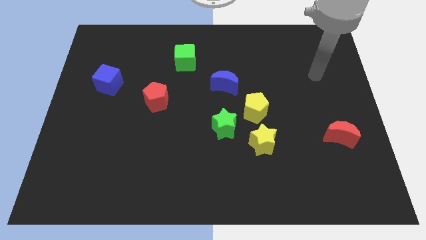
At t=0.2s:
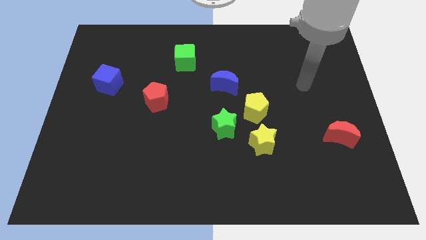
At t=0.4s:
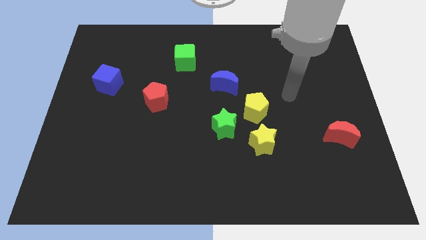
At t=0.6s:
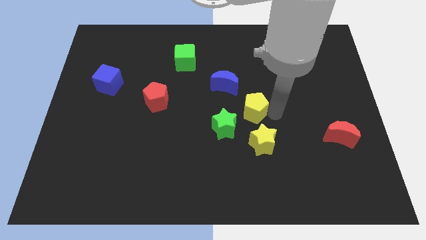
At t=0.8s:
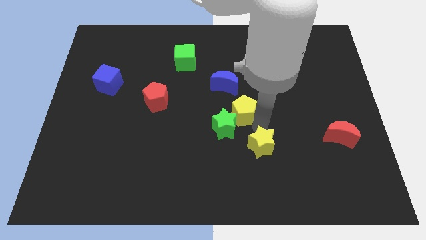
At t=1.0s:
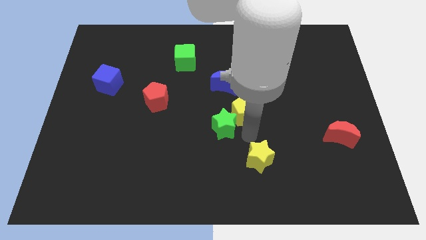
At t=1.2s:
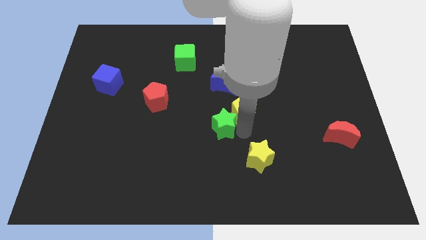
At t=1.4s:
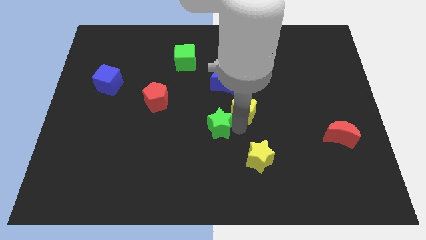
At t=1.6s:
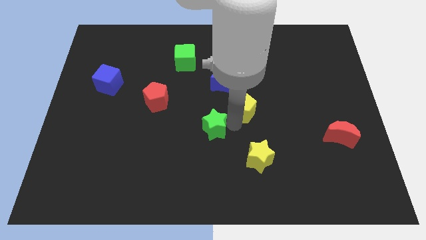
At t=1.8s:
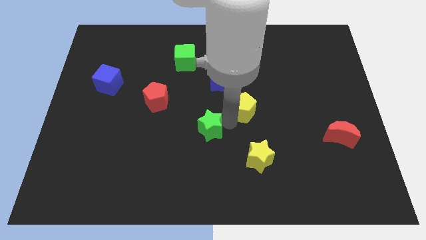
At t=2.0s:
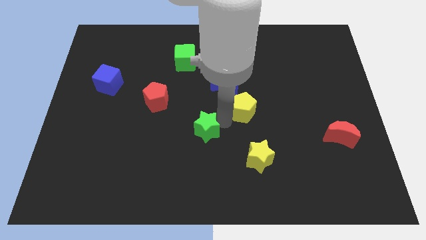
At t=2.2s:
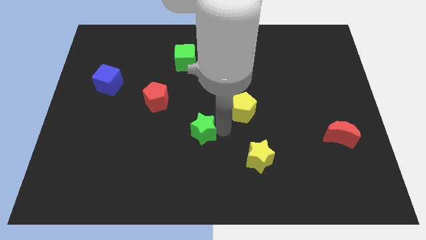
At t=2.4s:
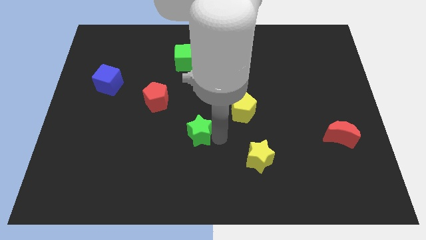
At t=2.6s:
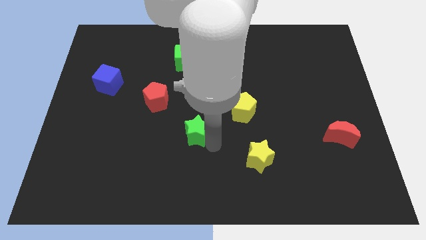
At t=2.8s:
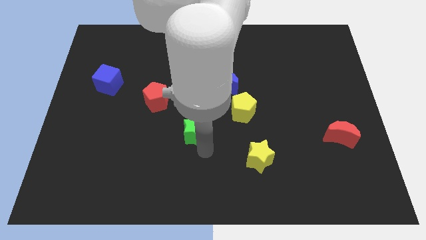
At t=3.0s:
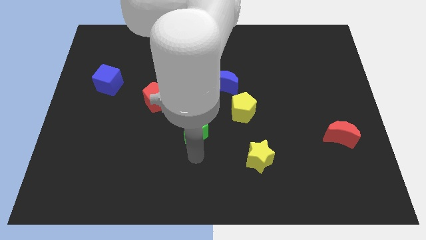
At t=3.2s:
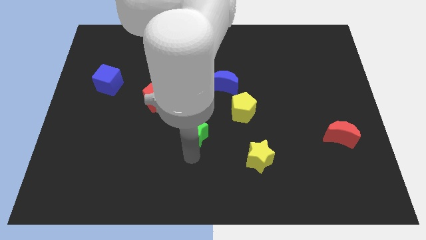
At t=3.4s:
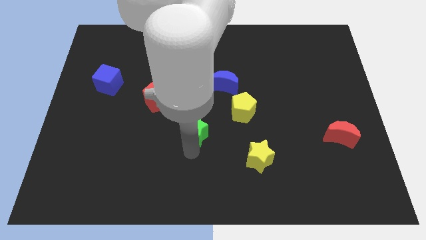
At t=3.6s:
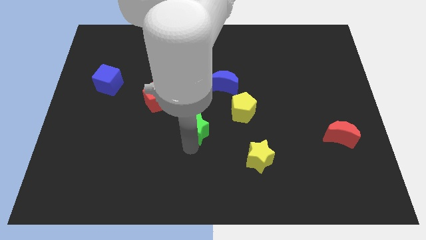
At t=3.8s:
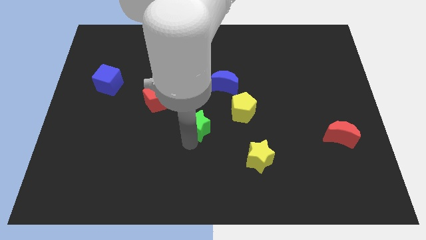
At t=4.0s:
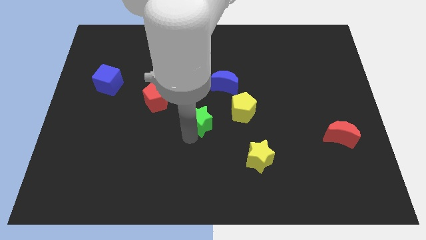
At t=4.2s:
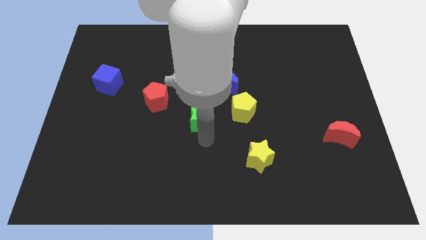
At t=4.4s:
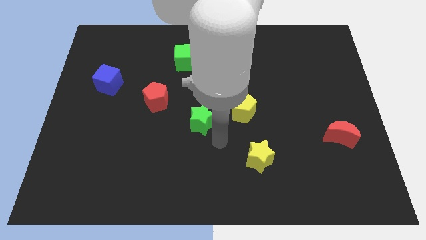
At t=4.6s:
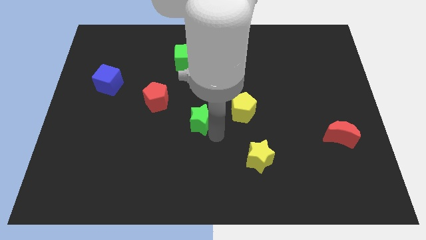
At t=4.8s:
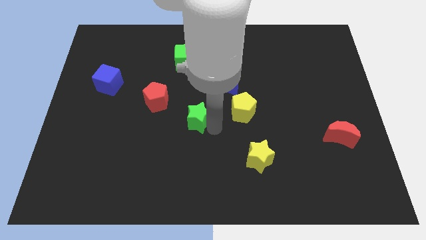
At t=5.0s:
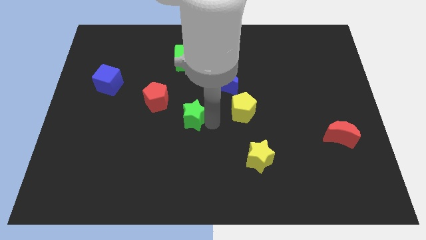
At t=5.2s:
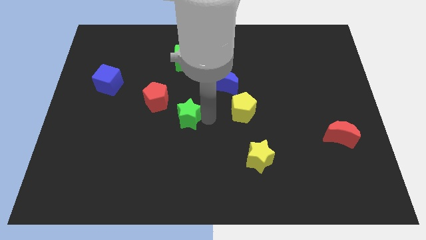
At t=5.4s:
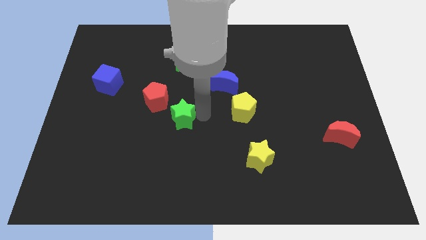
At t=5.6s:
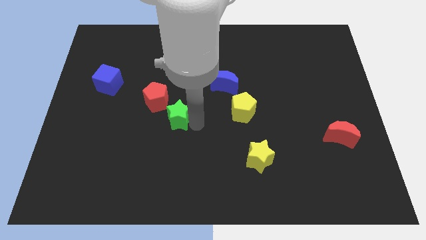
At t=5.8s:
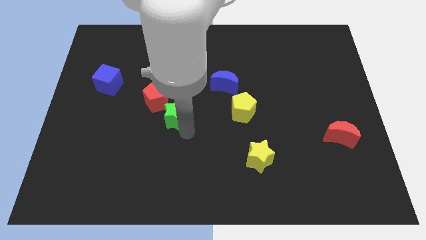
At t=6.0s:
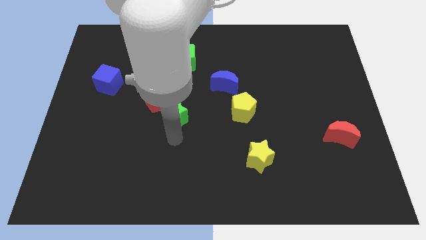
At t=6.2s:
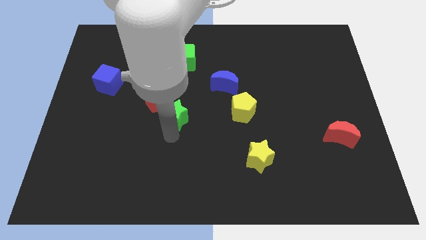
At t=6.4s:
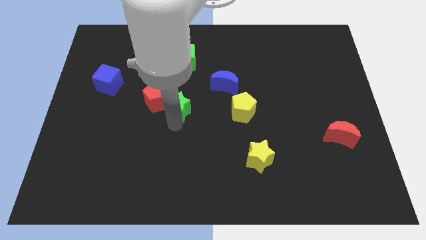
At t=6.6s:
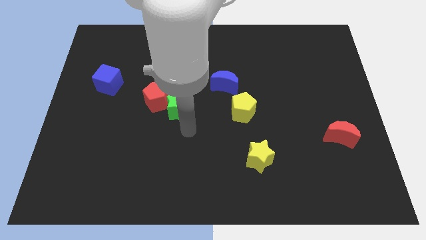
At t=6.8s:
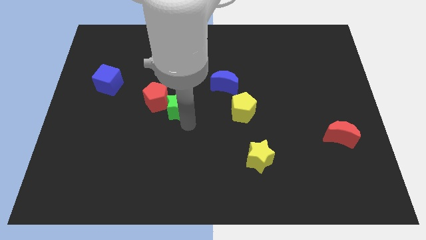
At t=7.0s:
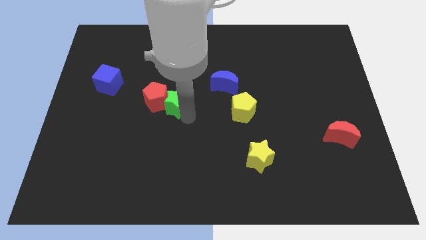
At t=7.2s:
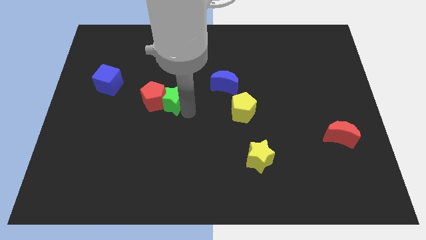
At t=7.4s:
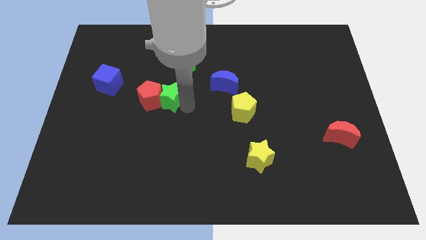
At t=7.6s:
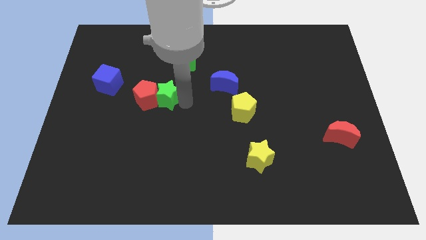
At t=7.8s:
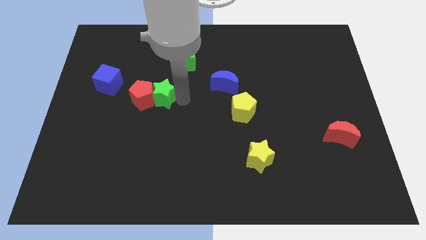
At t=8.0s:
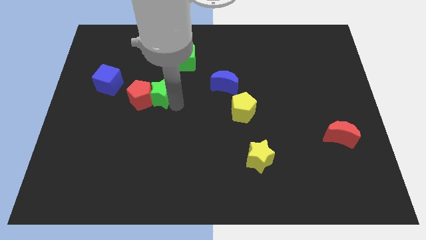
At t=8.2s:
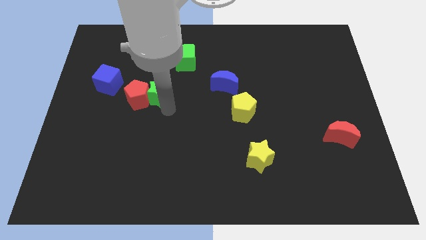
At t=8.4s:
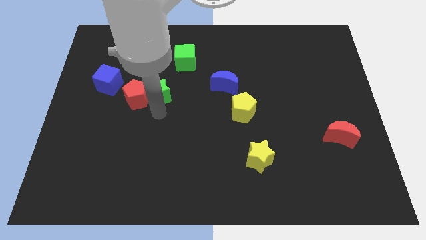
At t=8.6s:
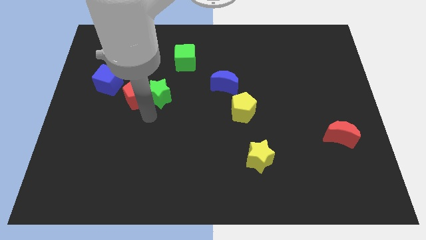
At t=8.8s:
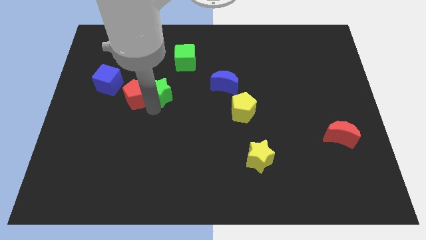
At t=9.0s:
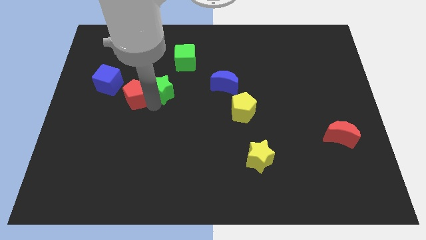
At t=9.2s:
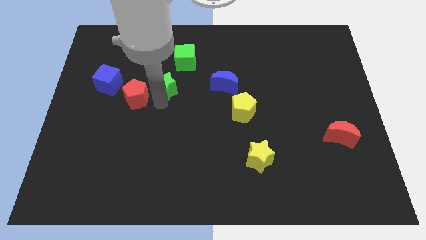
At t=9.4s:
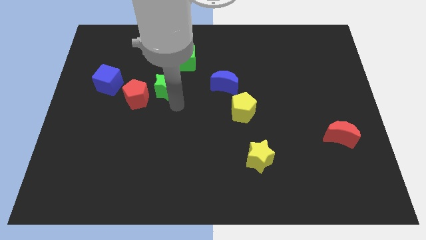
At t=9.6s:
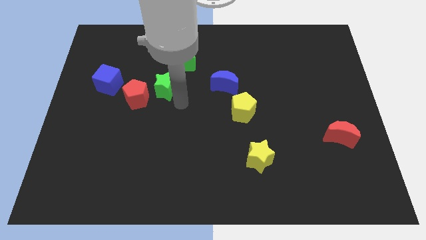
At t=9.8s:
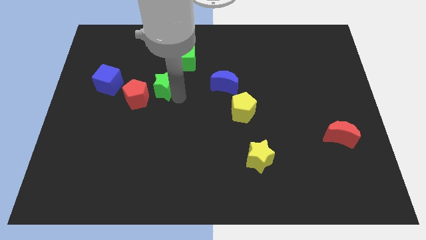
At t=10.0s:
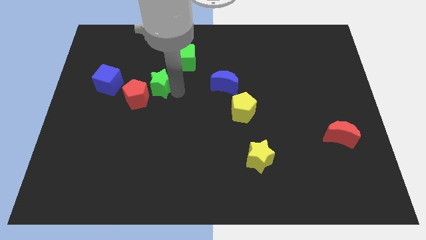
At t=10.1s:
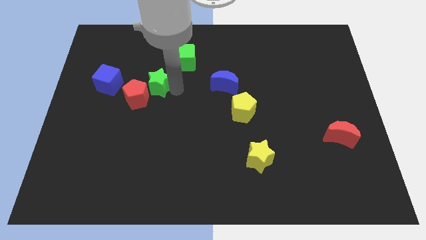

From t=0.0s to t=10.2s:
push the green star upwards and to the left

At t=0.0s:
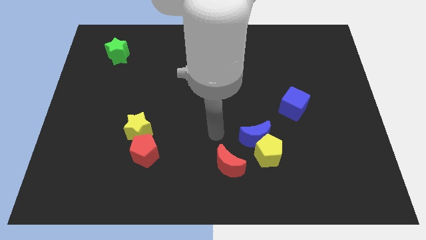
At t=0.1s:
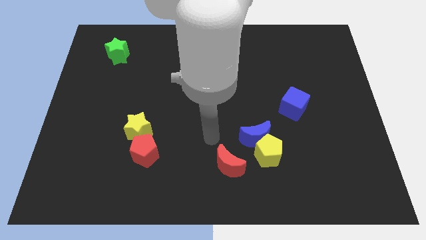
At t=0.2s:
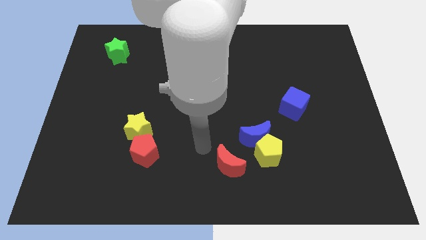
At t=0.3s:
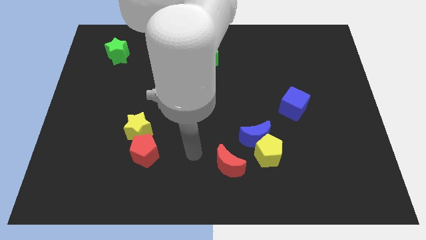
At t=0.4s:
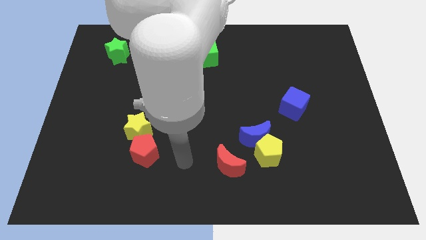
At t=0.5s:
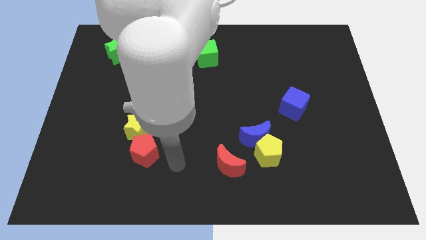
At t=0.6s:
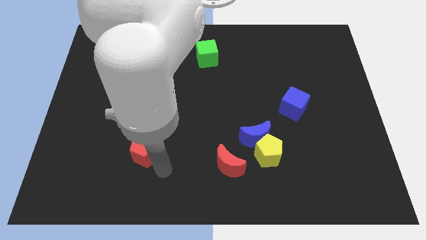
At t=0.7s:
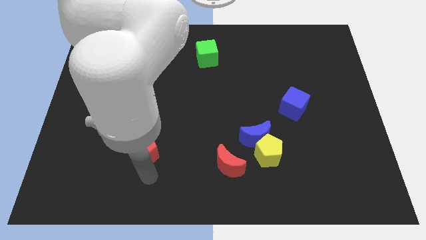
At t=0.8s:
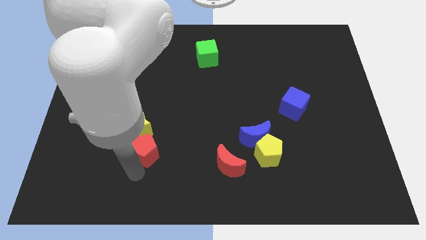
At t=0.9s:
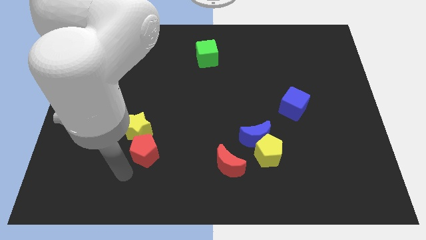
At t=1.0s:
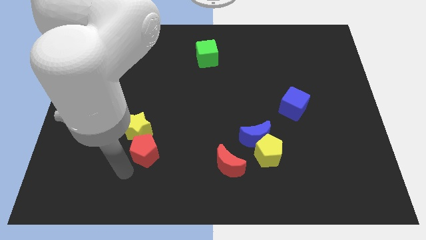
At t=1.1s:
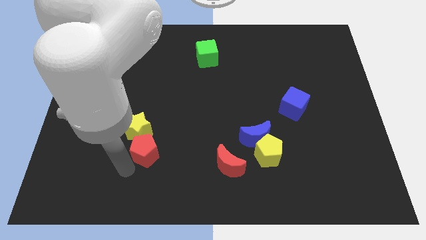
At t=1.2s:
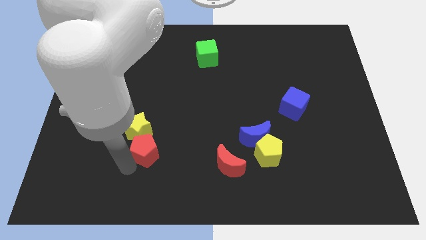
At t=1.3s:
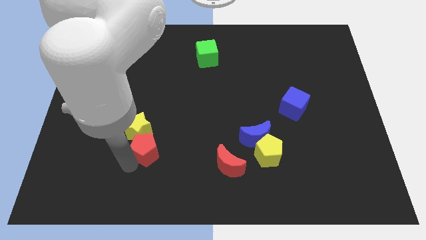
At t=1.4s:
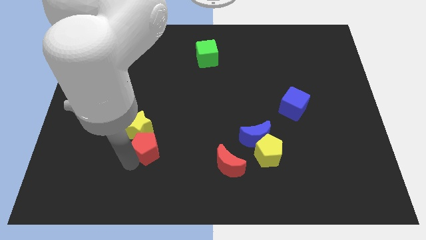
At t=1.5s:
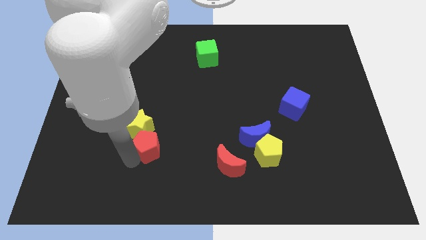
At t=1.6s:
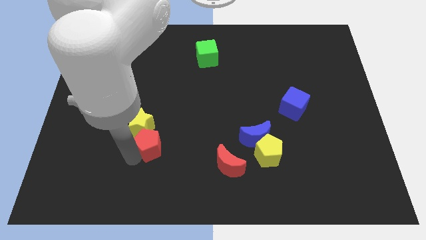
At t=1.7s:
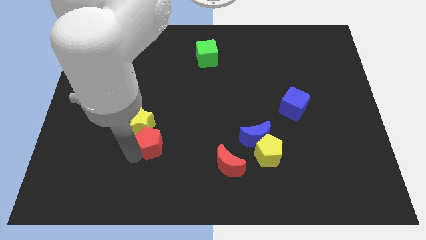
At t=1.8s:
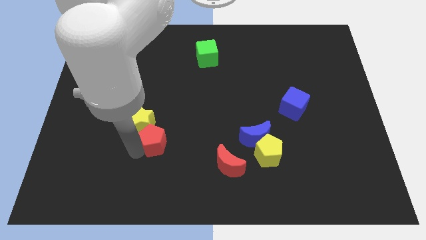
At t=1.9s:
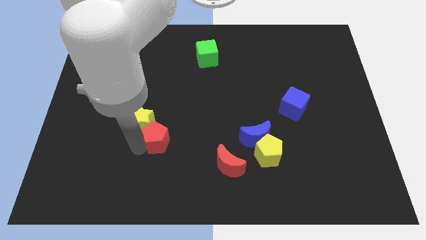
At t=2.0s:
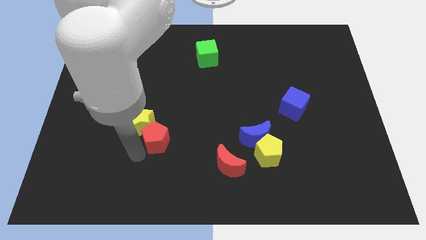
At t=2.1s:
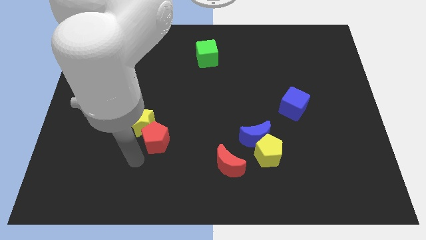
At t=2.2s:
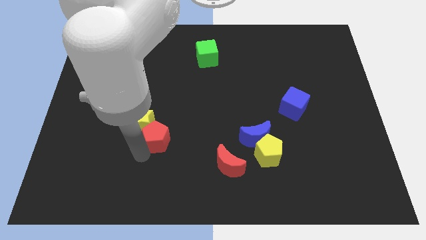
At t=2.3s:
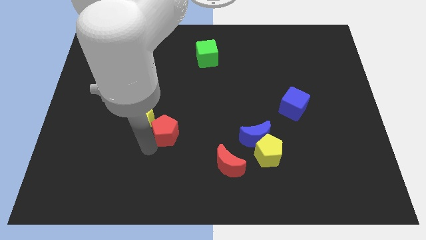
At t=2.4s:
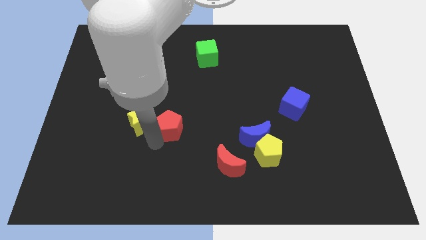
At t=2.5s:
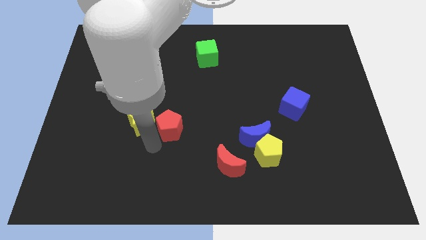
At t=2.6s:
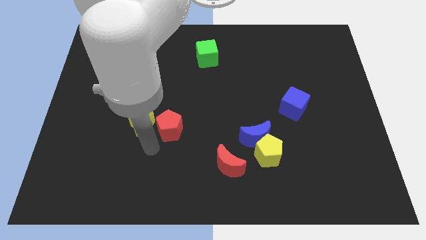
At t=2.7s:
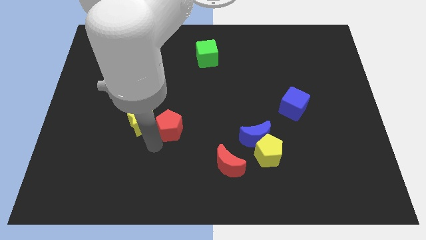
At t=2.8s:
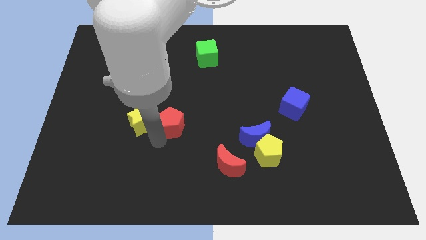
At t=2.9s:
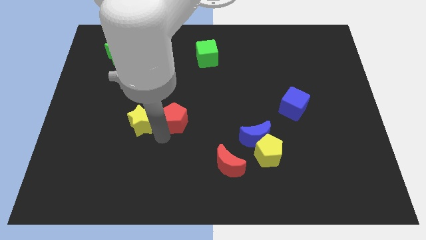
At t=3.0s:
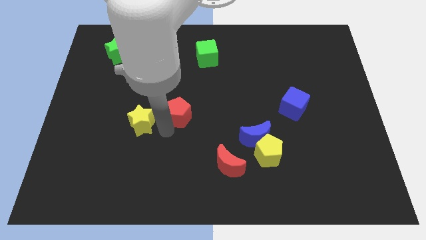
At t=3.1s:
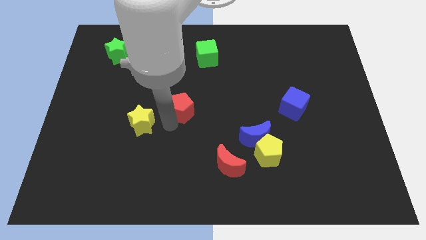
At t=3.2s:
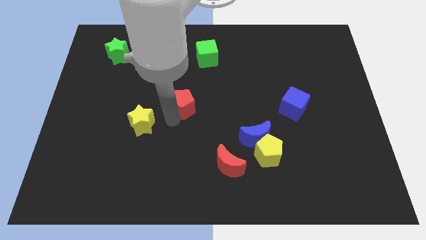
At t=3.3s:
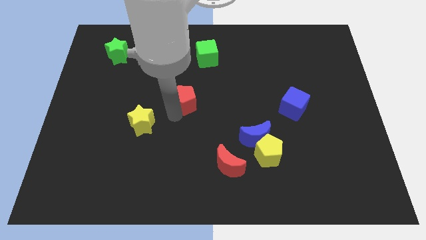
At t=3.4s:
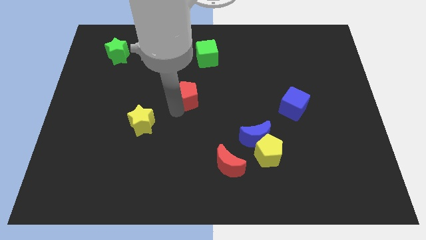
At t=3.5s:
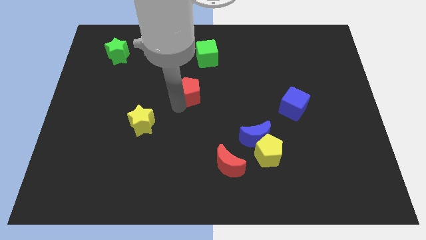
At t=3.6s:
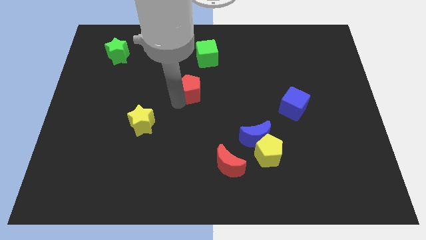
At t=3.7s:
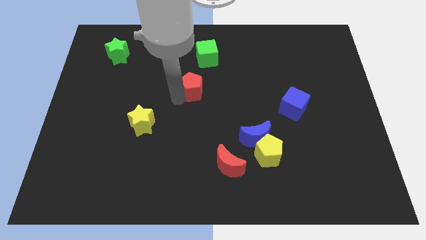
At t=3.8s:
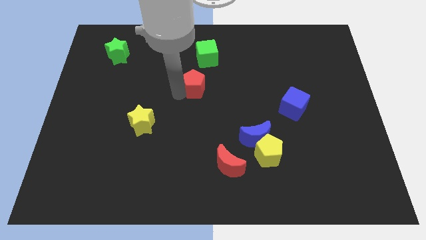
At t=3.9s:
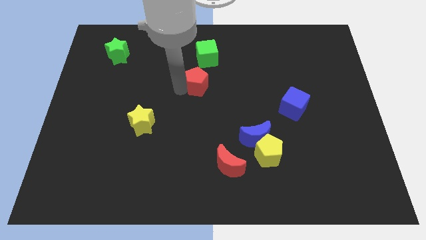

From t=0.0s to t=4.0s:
slide the red pentagon upwards and then right
